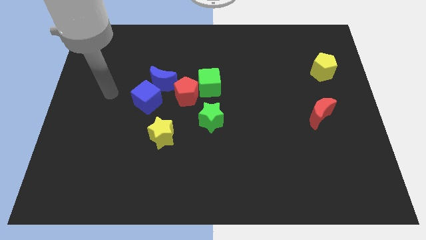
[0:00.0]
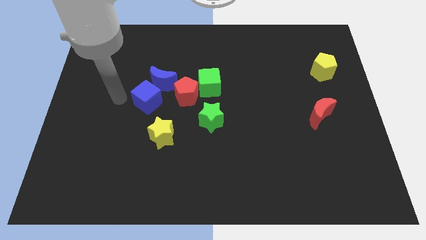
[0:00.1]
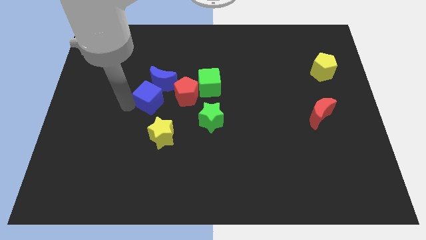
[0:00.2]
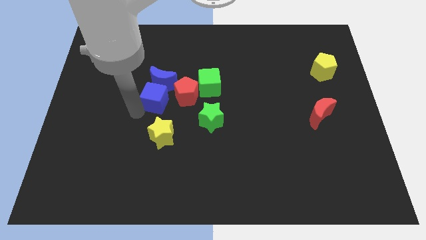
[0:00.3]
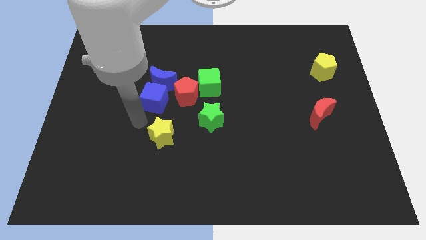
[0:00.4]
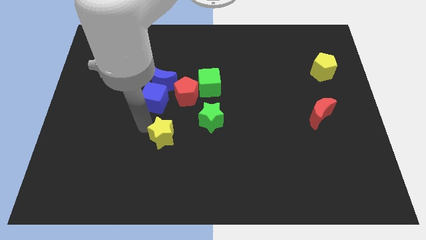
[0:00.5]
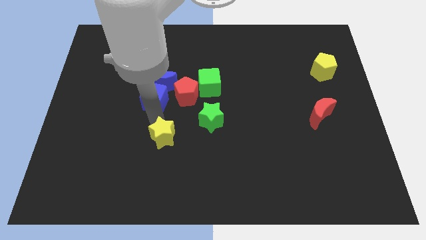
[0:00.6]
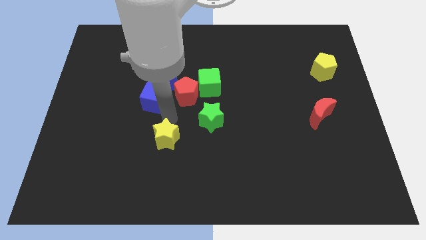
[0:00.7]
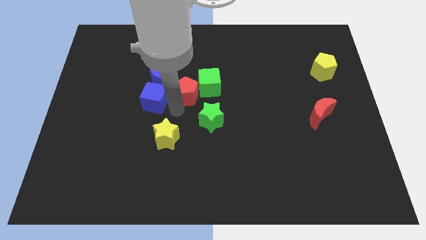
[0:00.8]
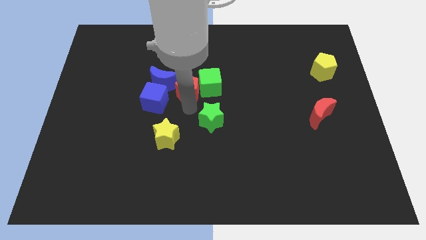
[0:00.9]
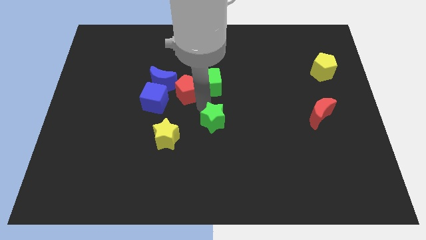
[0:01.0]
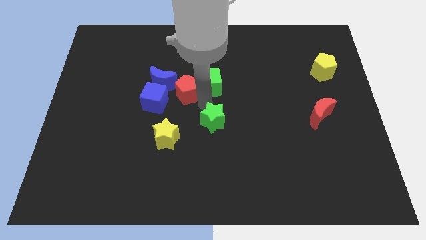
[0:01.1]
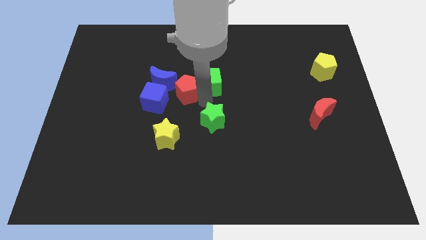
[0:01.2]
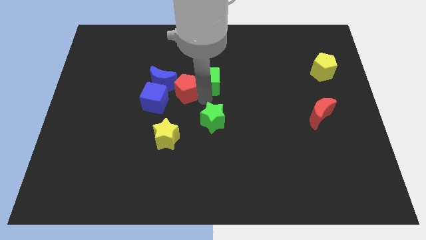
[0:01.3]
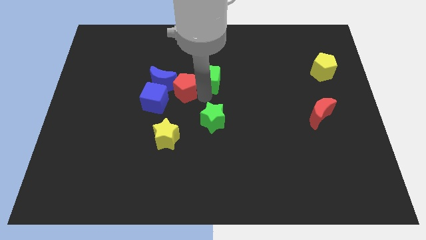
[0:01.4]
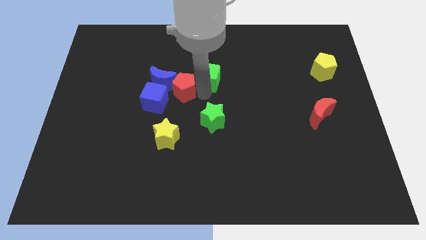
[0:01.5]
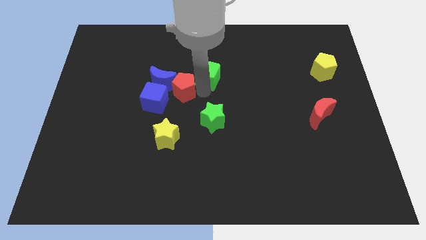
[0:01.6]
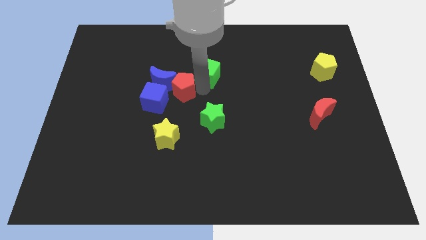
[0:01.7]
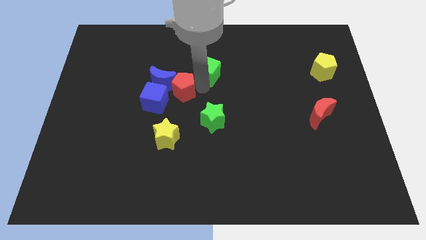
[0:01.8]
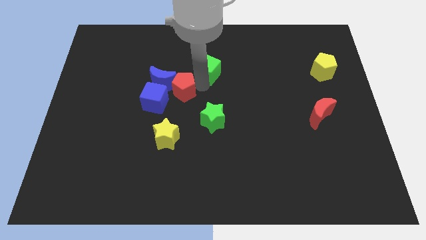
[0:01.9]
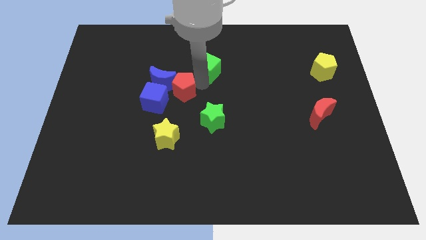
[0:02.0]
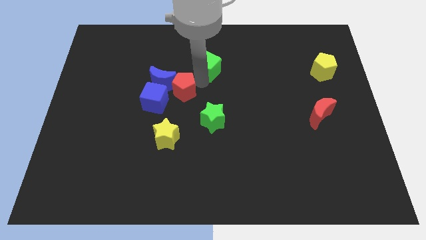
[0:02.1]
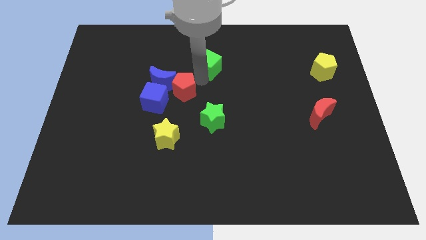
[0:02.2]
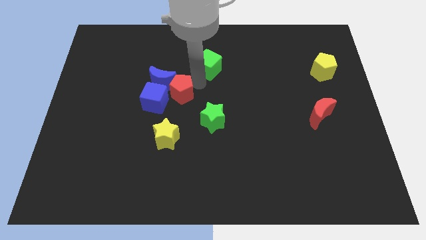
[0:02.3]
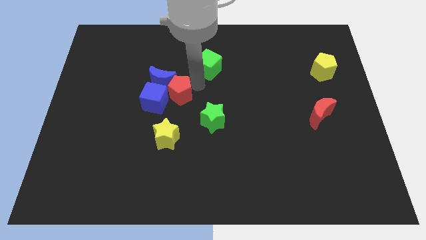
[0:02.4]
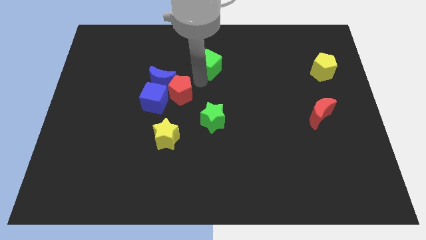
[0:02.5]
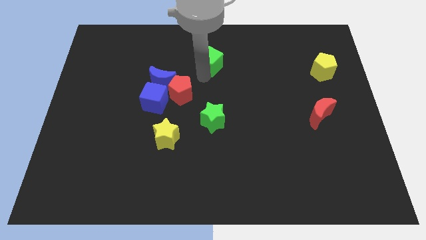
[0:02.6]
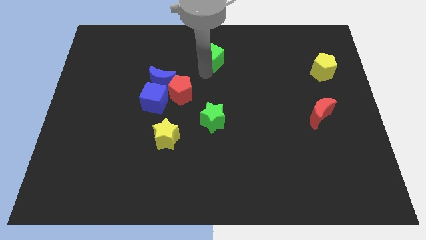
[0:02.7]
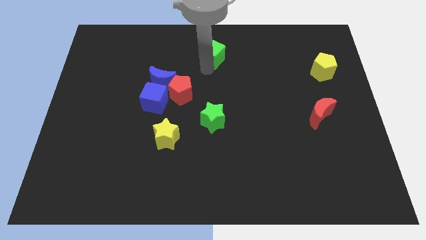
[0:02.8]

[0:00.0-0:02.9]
put the green cube to the top

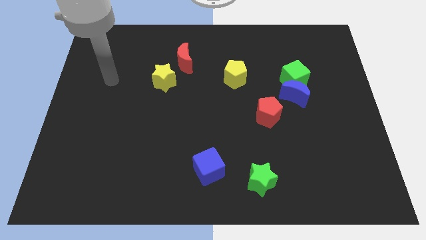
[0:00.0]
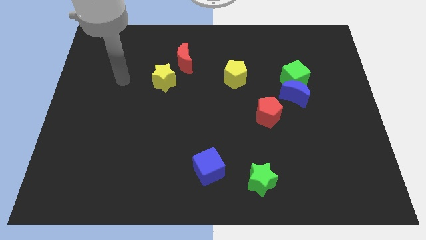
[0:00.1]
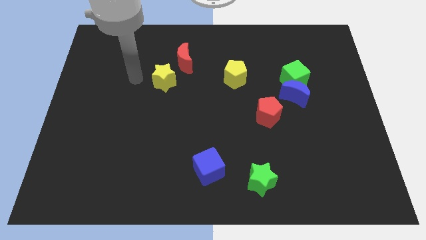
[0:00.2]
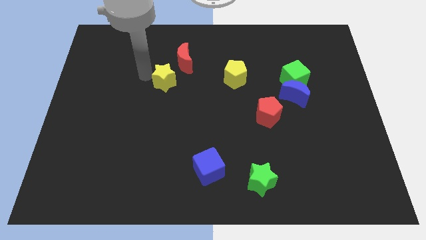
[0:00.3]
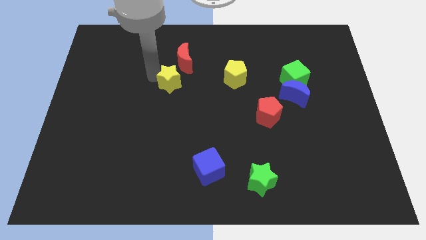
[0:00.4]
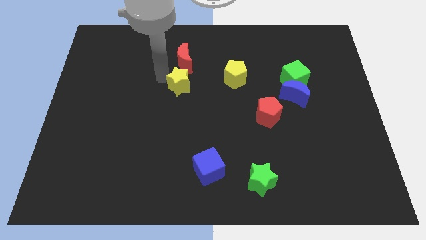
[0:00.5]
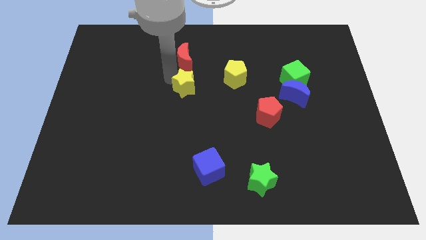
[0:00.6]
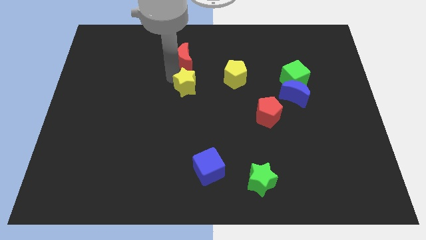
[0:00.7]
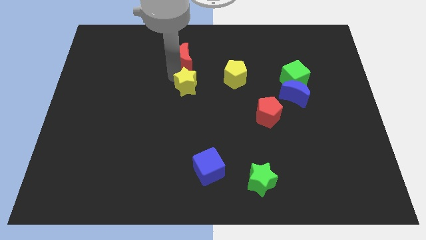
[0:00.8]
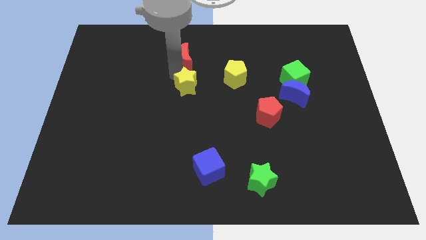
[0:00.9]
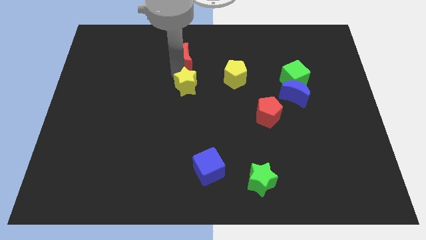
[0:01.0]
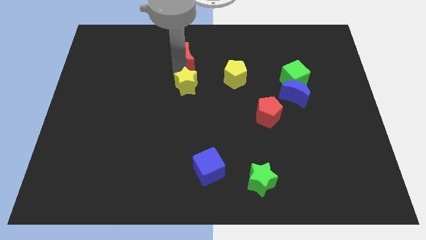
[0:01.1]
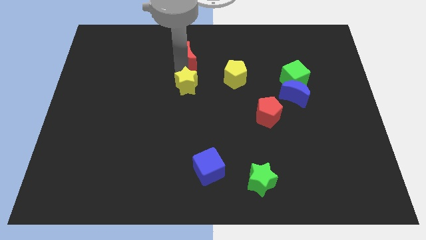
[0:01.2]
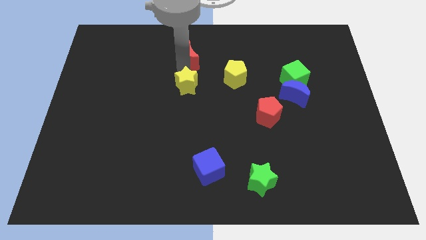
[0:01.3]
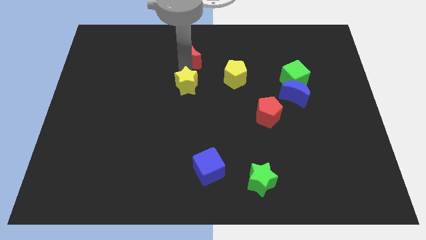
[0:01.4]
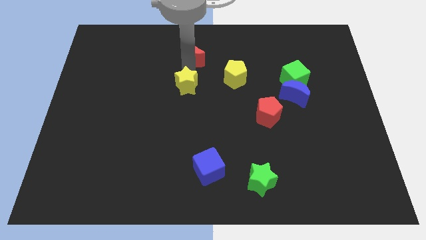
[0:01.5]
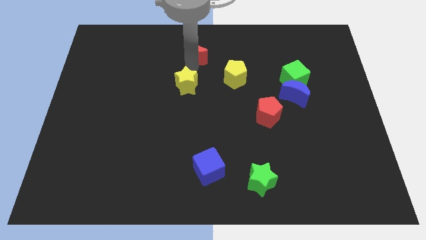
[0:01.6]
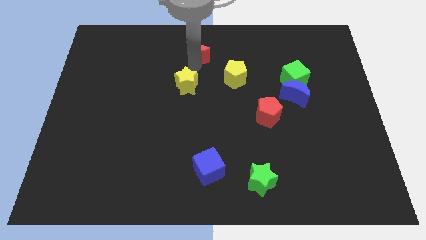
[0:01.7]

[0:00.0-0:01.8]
slide the red moon to the towards your base

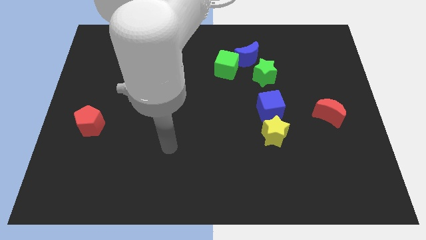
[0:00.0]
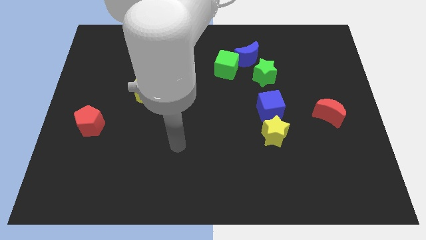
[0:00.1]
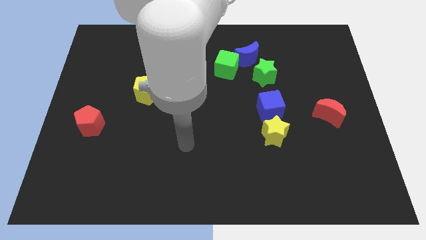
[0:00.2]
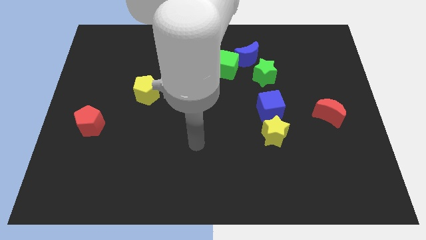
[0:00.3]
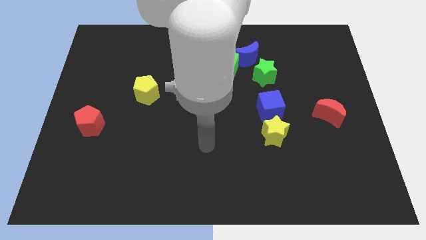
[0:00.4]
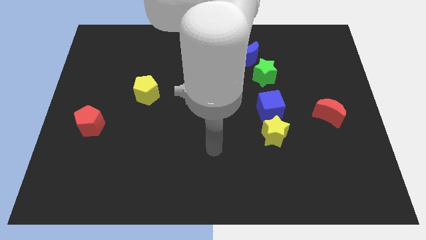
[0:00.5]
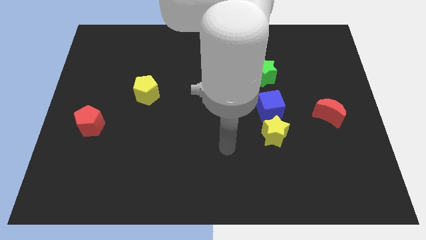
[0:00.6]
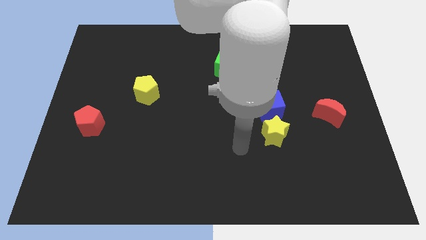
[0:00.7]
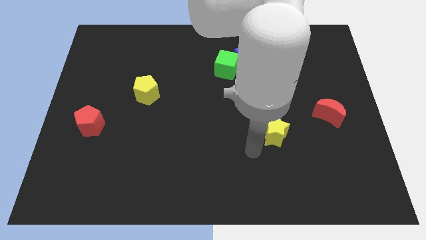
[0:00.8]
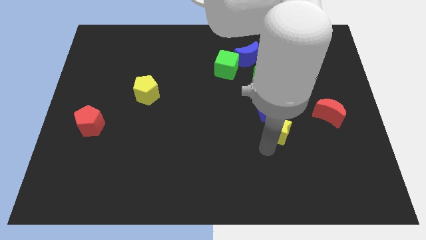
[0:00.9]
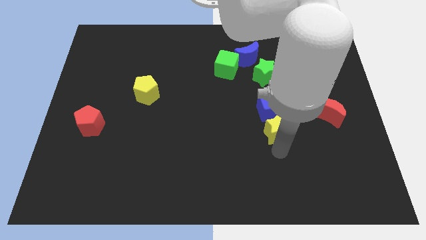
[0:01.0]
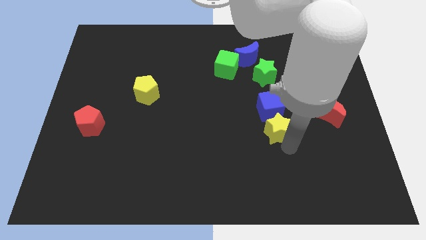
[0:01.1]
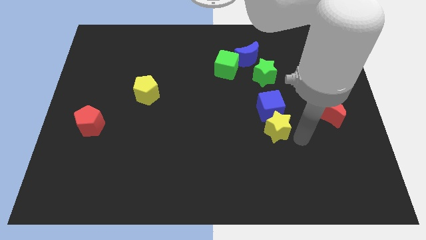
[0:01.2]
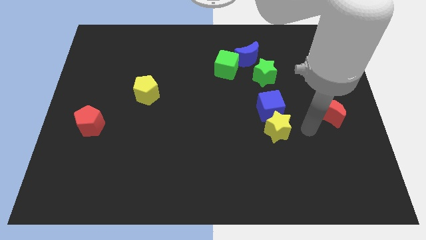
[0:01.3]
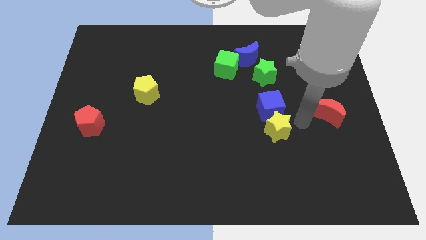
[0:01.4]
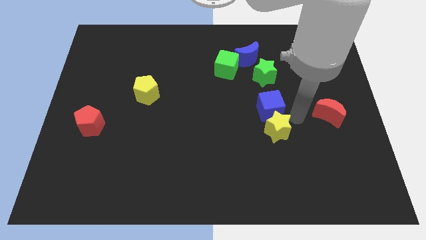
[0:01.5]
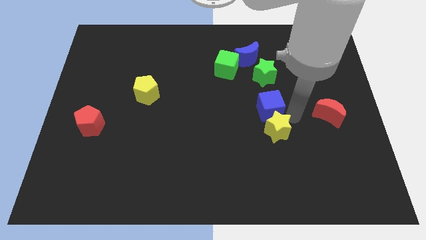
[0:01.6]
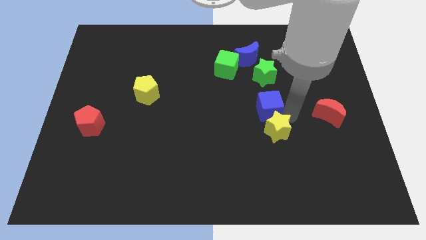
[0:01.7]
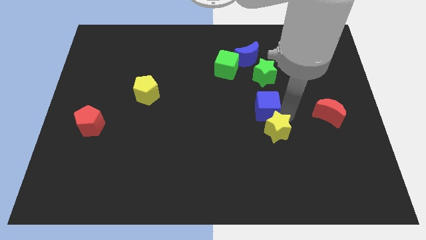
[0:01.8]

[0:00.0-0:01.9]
slide the blue cube to the center of the board

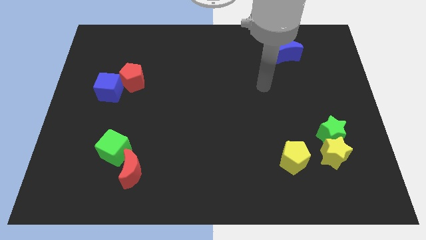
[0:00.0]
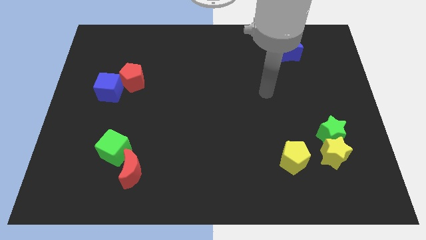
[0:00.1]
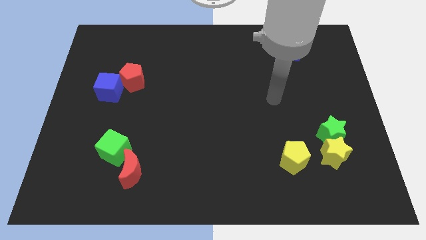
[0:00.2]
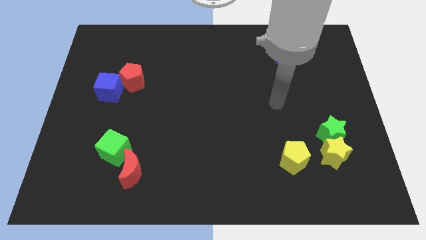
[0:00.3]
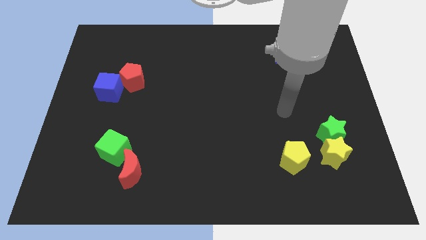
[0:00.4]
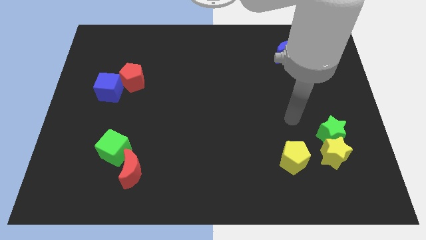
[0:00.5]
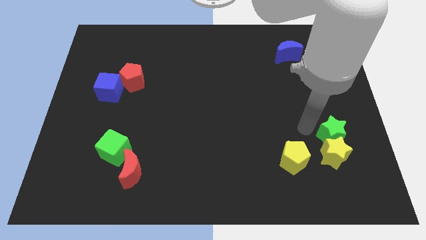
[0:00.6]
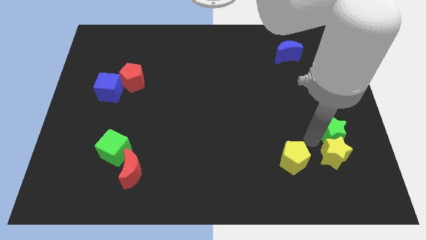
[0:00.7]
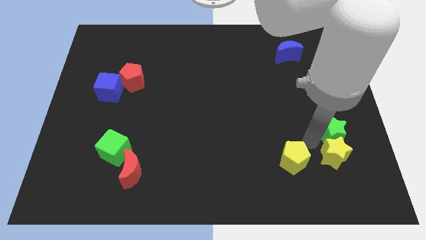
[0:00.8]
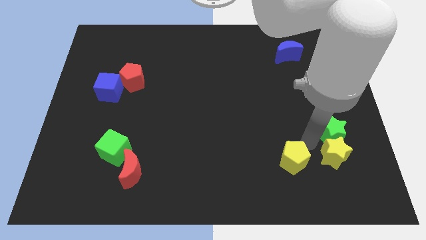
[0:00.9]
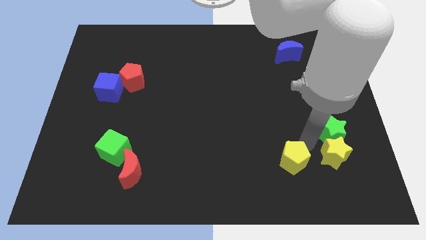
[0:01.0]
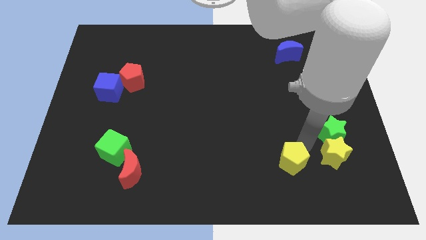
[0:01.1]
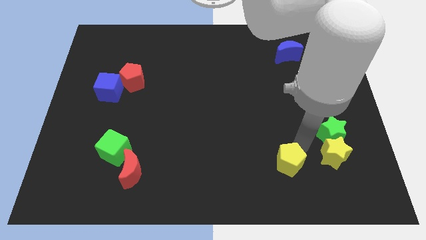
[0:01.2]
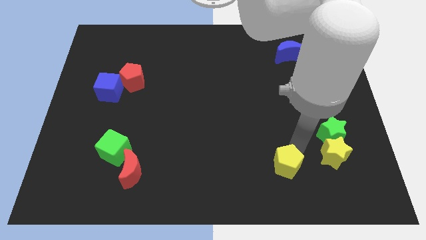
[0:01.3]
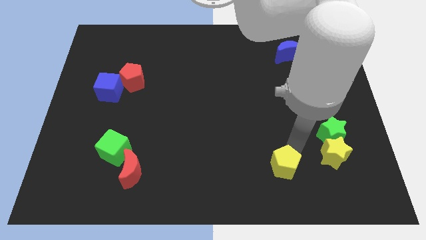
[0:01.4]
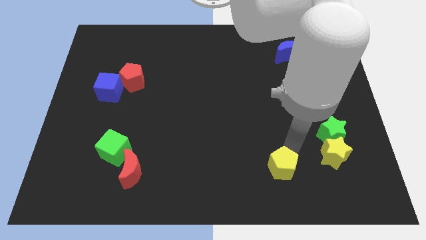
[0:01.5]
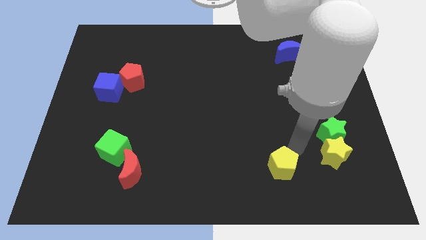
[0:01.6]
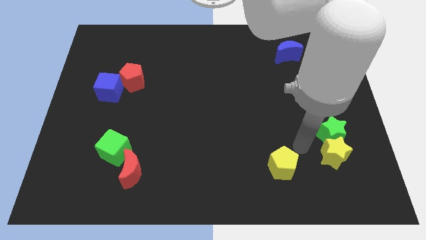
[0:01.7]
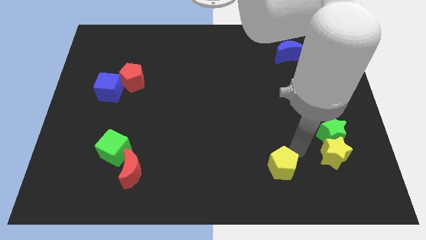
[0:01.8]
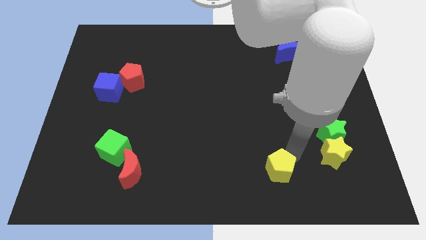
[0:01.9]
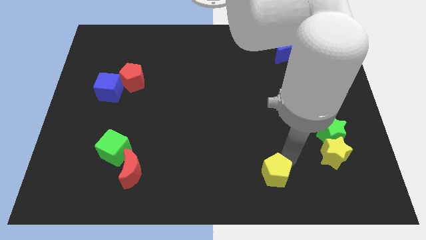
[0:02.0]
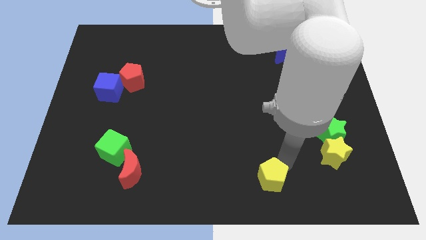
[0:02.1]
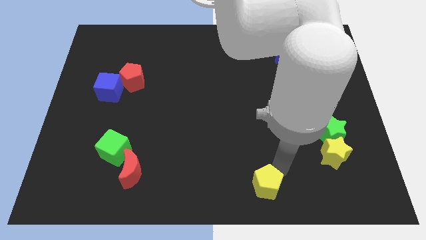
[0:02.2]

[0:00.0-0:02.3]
push the yellow pentagon to the bottom
